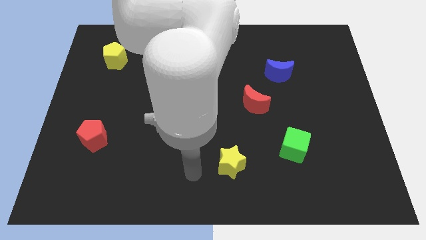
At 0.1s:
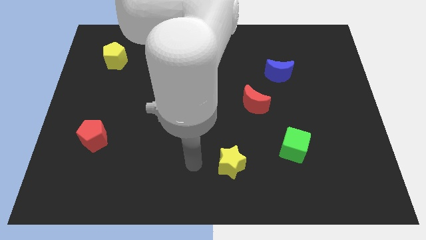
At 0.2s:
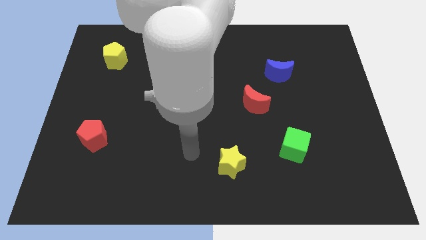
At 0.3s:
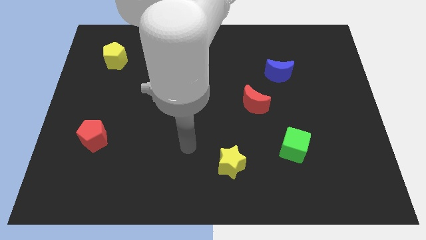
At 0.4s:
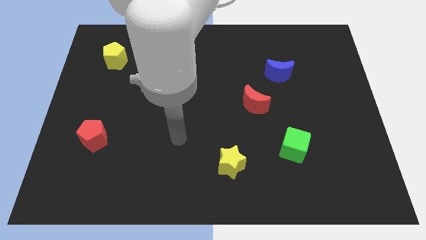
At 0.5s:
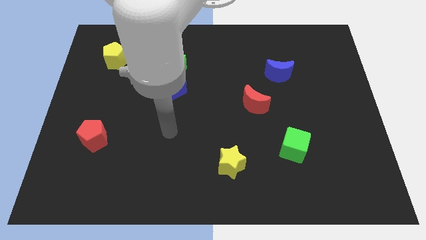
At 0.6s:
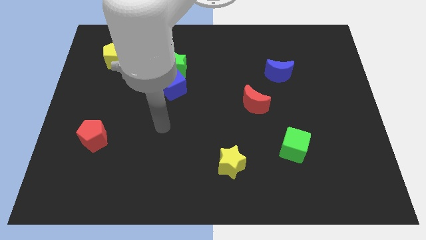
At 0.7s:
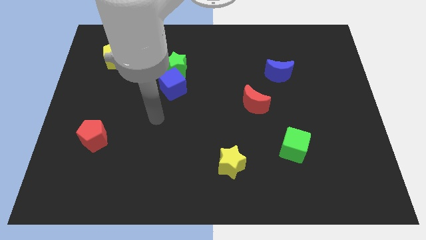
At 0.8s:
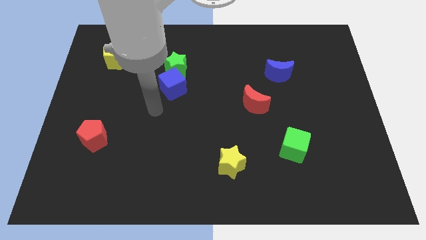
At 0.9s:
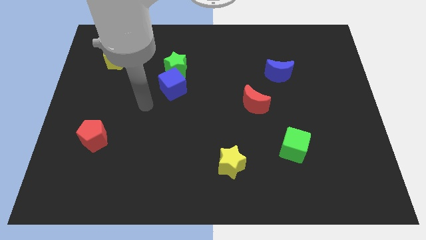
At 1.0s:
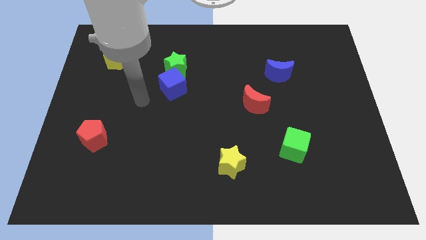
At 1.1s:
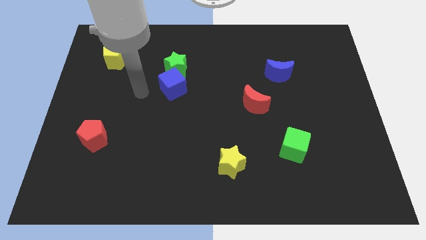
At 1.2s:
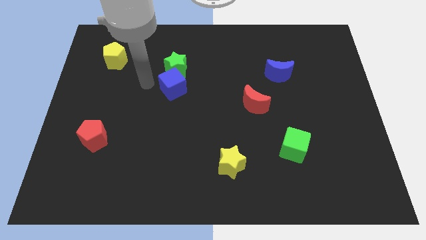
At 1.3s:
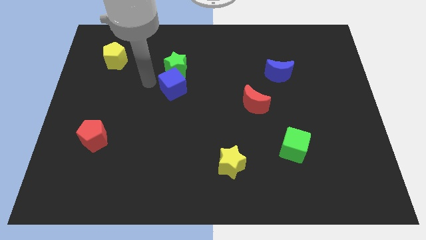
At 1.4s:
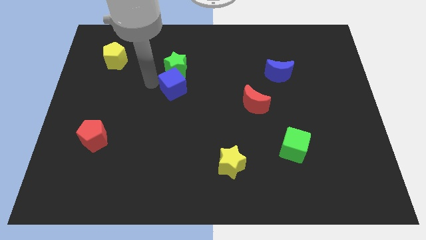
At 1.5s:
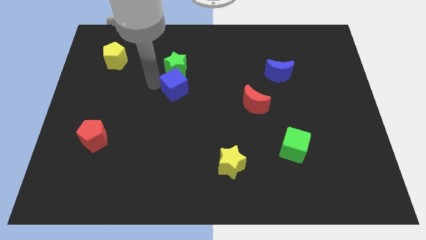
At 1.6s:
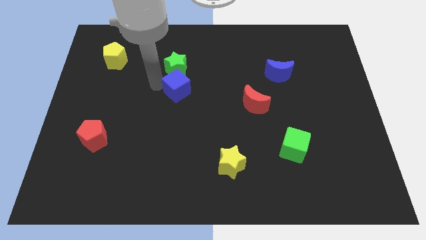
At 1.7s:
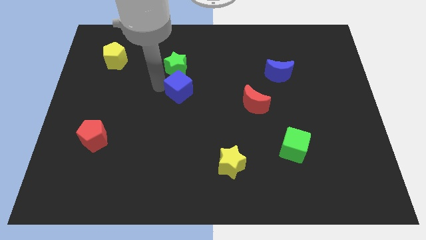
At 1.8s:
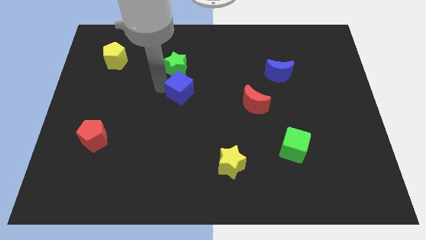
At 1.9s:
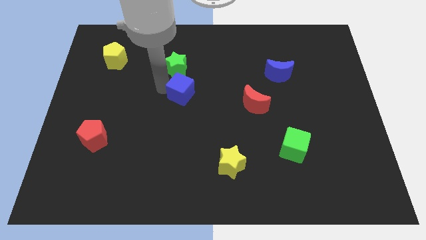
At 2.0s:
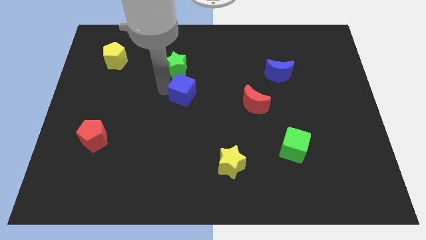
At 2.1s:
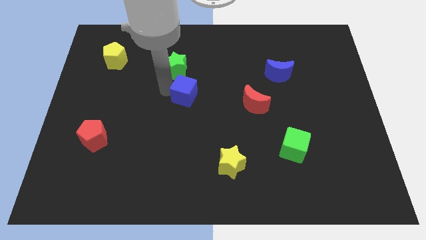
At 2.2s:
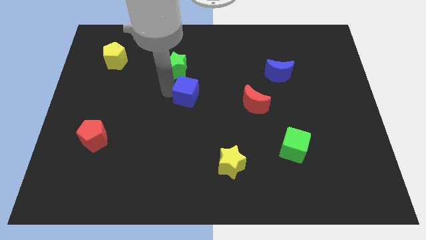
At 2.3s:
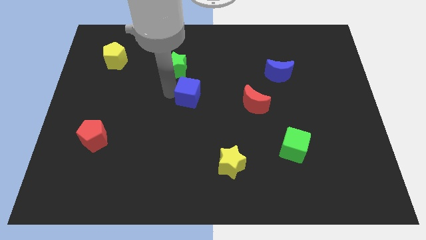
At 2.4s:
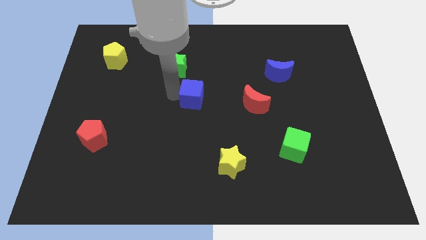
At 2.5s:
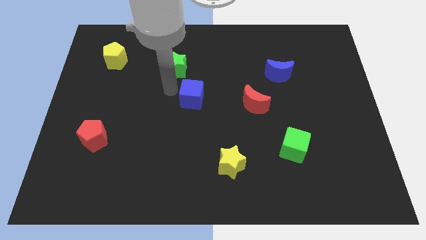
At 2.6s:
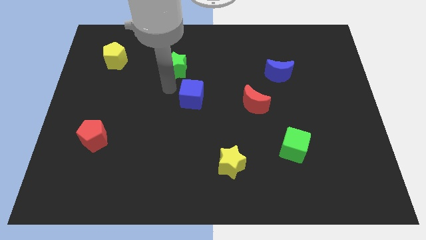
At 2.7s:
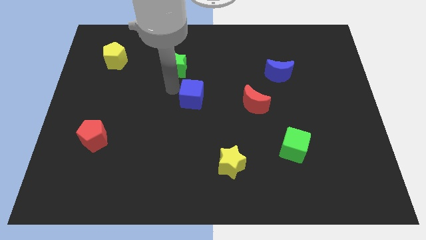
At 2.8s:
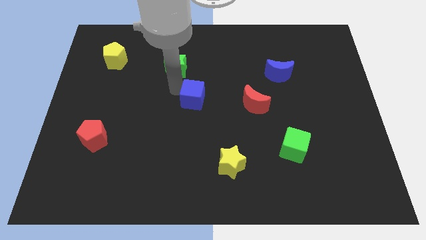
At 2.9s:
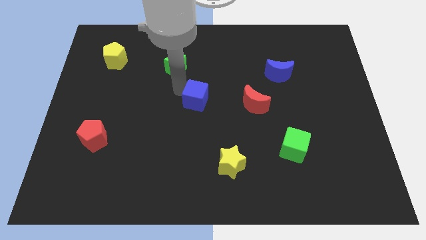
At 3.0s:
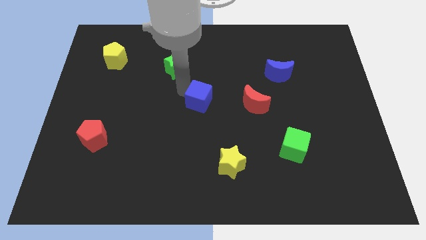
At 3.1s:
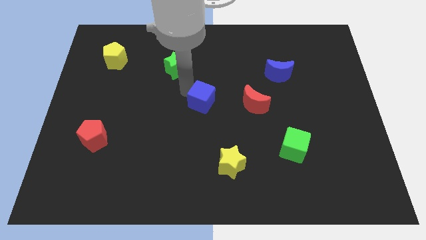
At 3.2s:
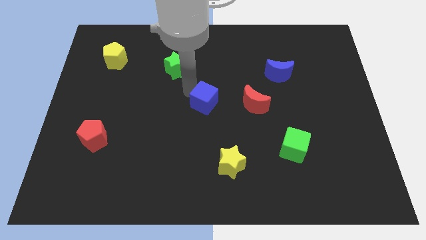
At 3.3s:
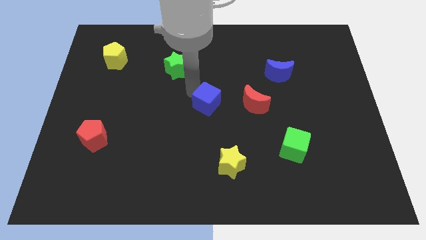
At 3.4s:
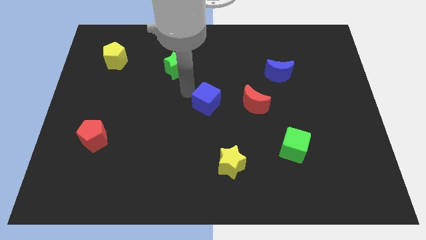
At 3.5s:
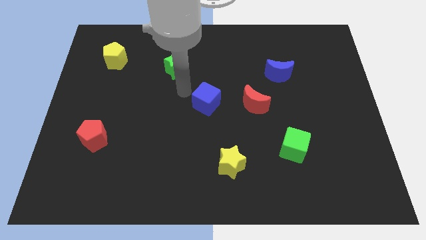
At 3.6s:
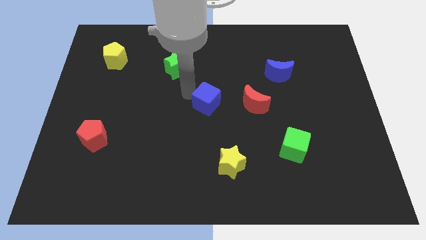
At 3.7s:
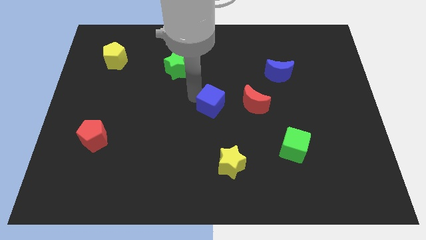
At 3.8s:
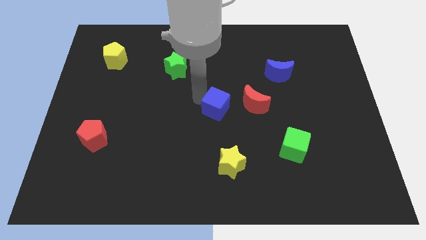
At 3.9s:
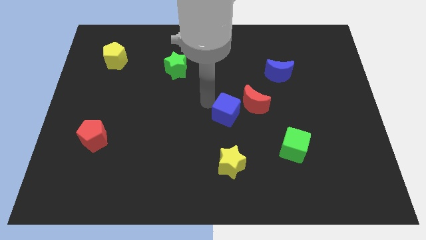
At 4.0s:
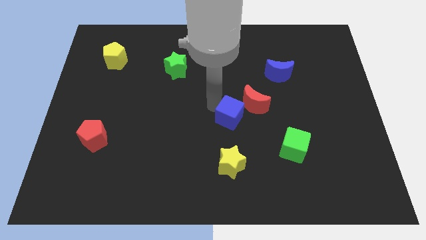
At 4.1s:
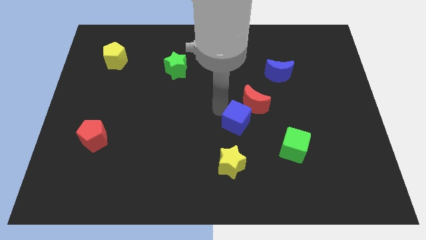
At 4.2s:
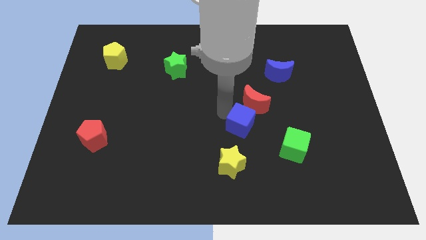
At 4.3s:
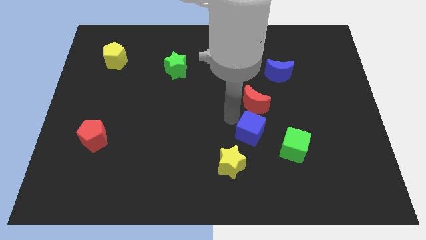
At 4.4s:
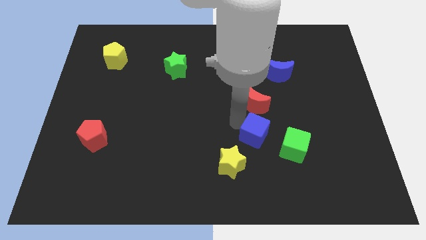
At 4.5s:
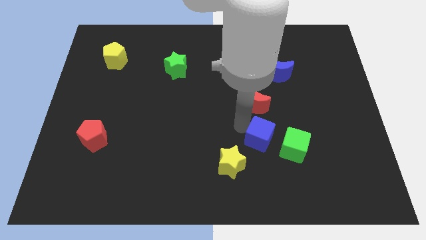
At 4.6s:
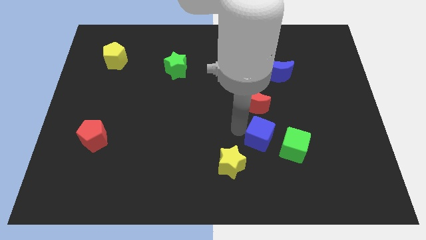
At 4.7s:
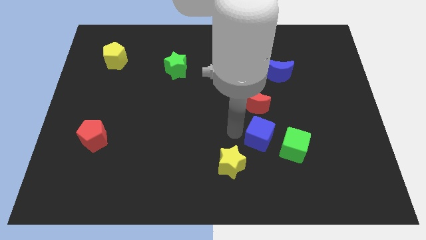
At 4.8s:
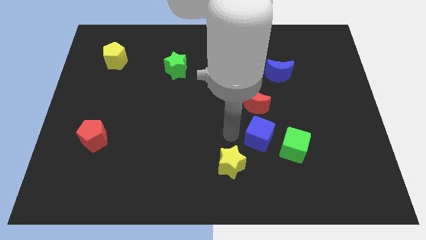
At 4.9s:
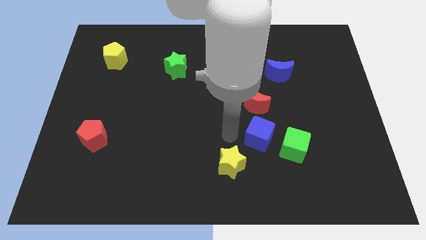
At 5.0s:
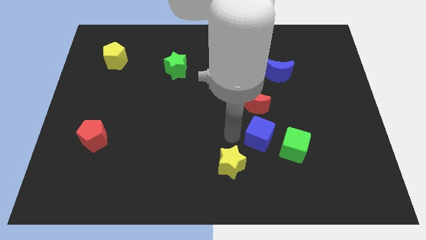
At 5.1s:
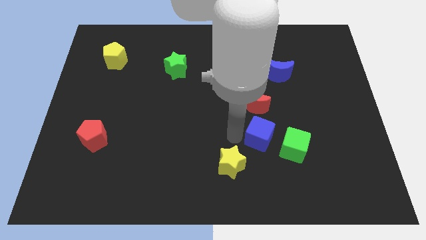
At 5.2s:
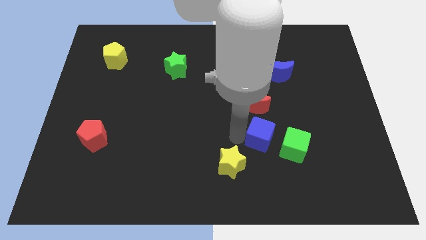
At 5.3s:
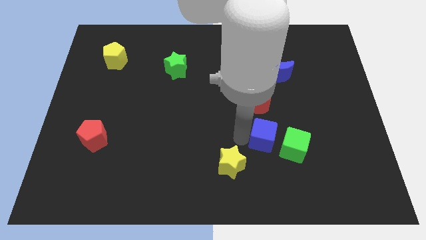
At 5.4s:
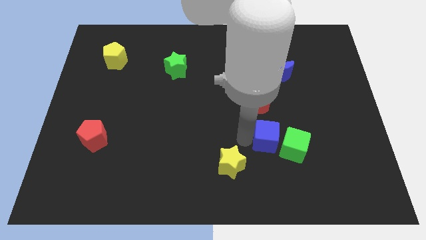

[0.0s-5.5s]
move the blue cube close to the green cube

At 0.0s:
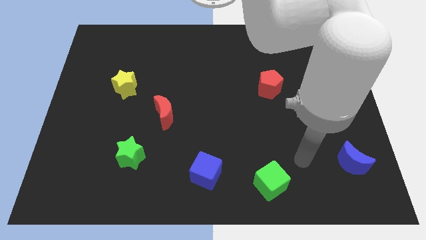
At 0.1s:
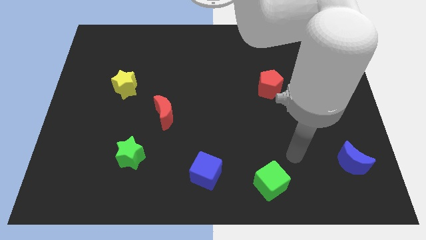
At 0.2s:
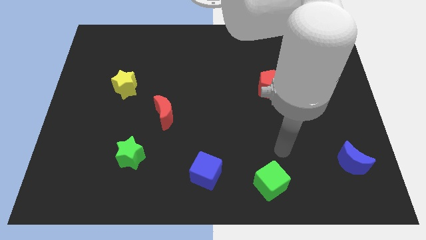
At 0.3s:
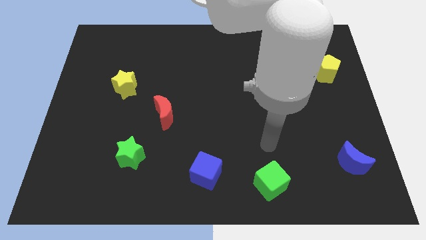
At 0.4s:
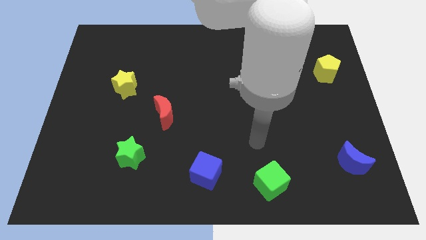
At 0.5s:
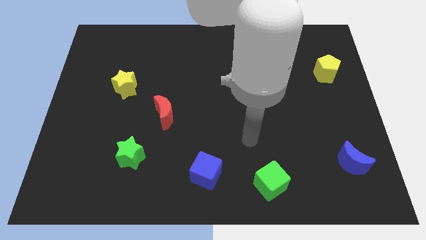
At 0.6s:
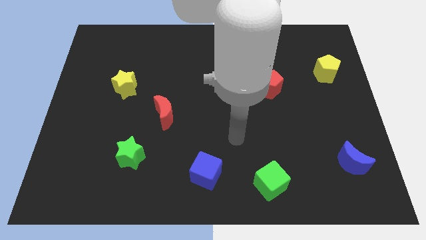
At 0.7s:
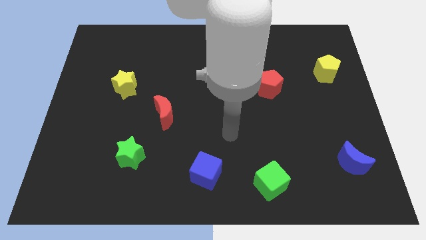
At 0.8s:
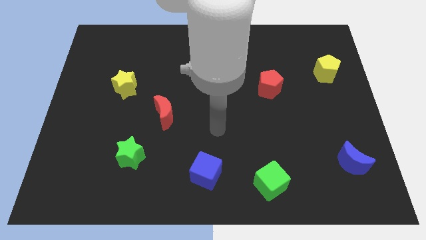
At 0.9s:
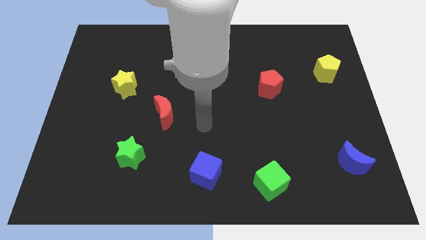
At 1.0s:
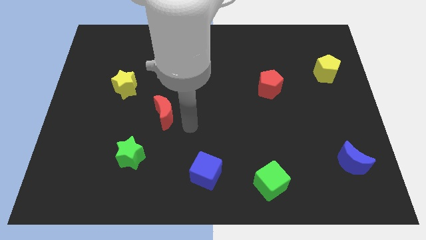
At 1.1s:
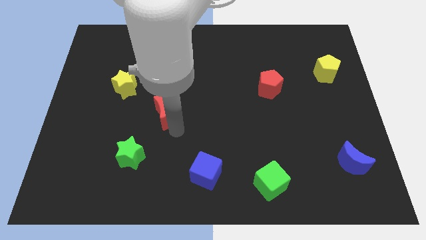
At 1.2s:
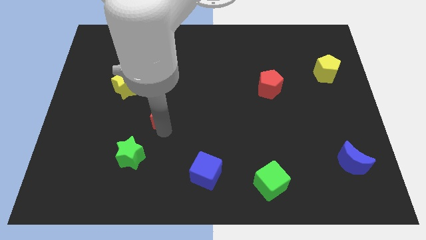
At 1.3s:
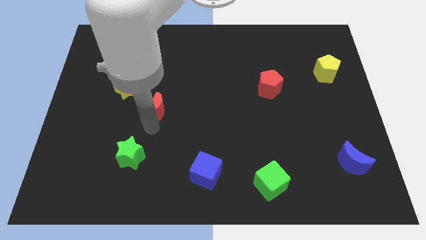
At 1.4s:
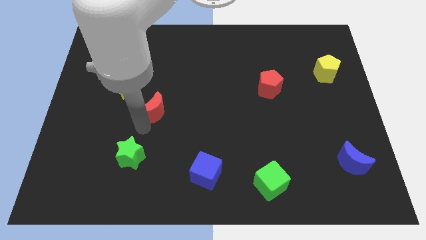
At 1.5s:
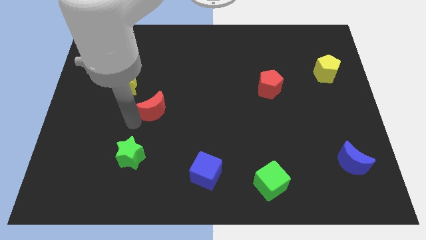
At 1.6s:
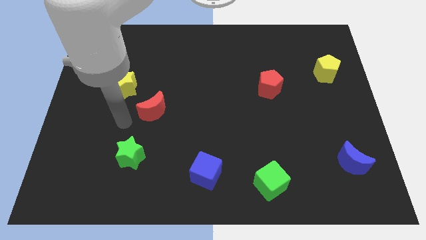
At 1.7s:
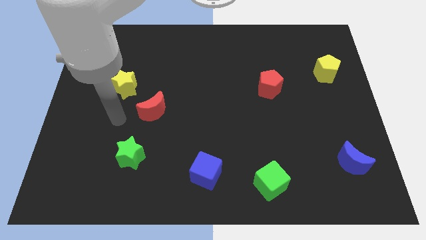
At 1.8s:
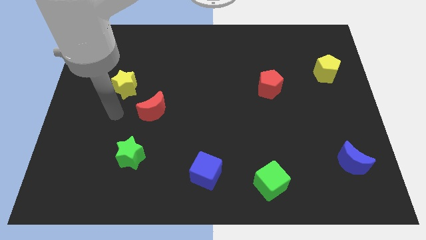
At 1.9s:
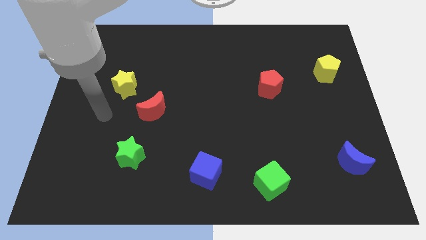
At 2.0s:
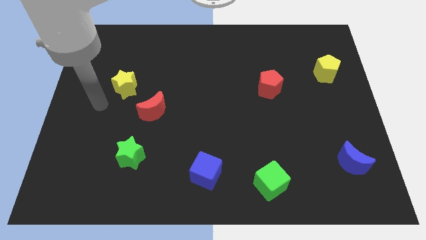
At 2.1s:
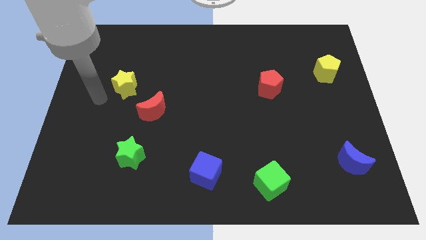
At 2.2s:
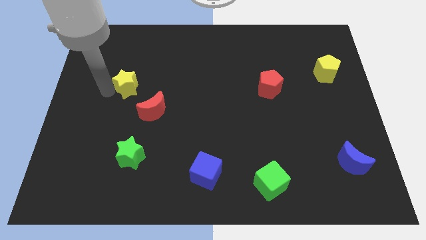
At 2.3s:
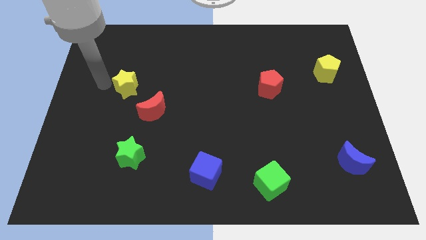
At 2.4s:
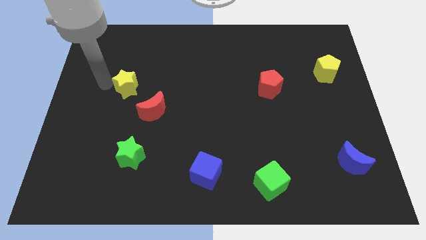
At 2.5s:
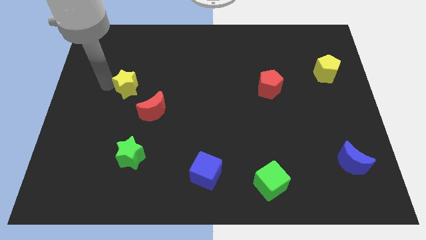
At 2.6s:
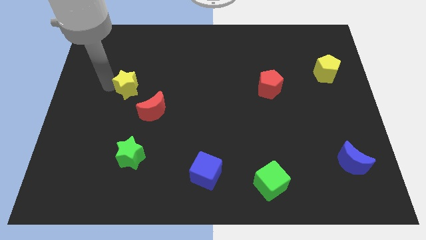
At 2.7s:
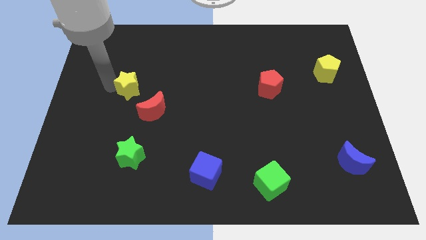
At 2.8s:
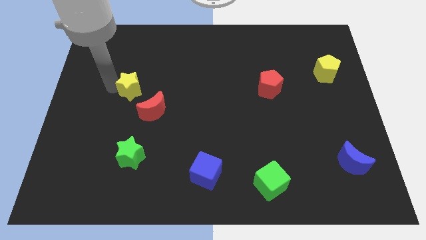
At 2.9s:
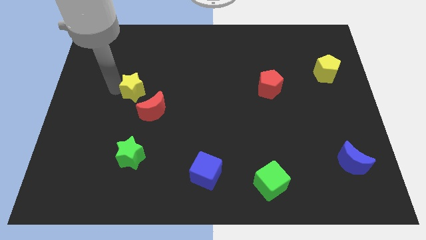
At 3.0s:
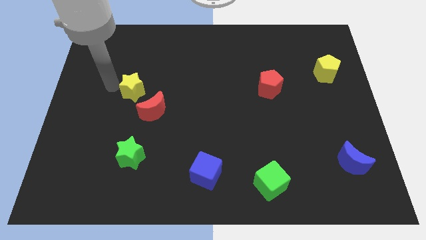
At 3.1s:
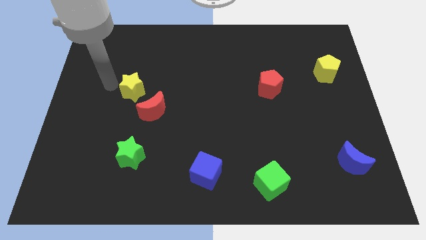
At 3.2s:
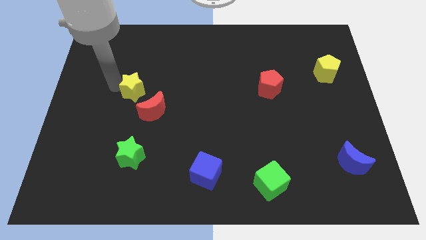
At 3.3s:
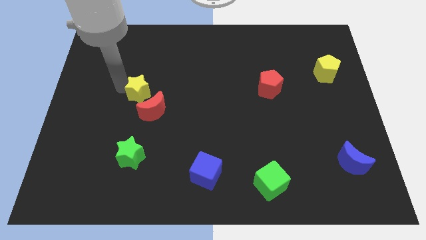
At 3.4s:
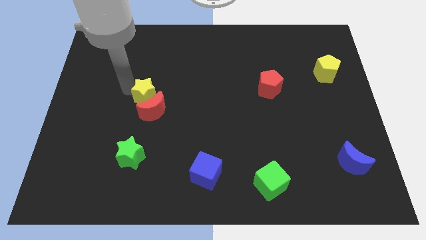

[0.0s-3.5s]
slide the yellow star to the red moon
